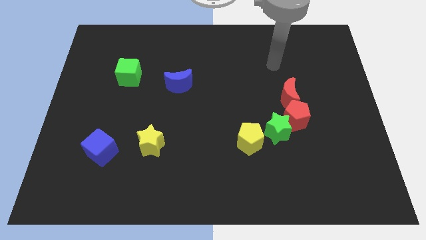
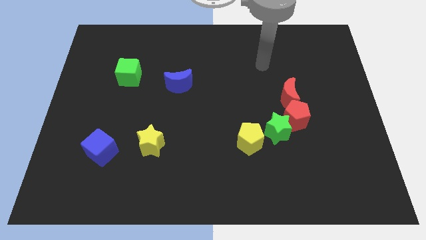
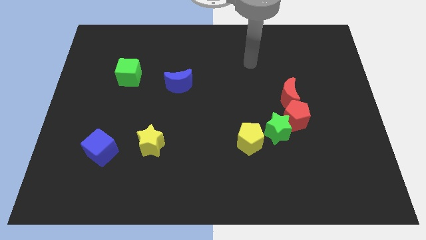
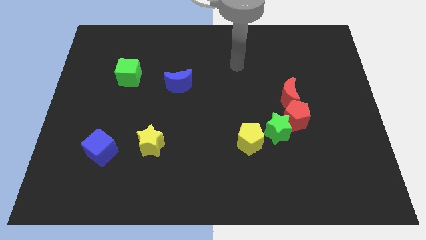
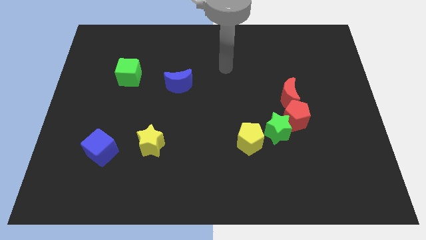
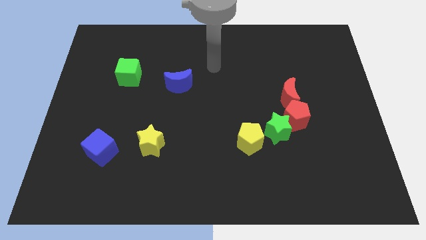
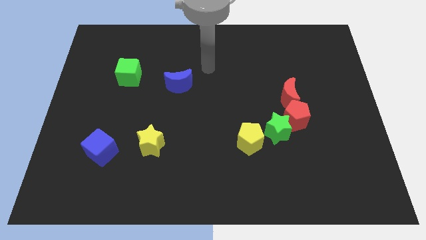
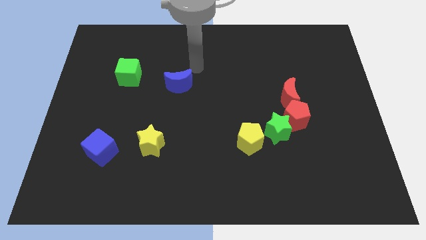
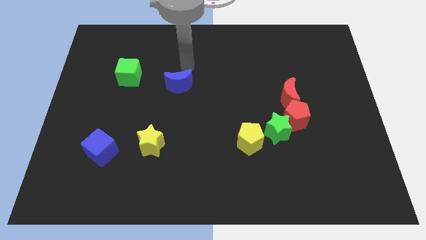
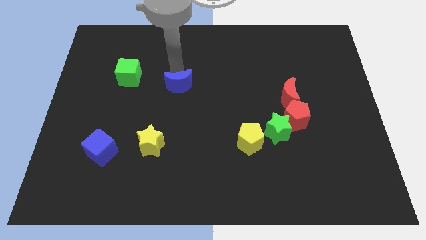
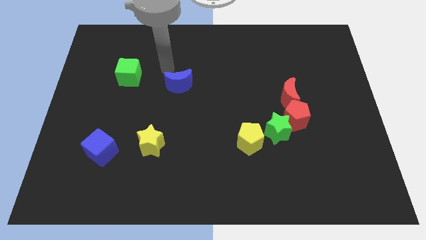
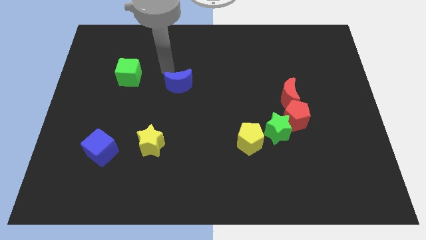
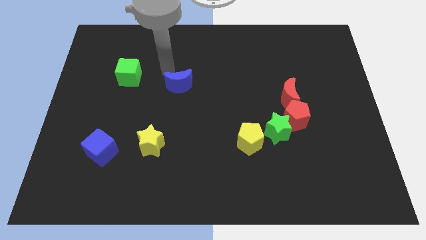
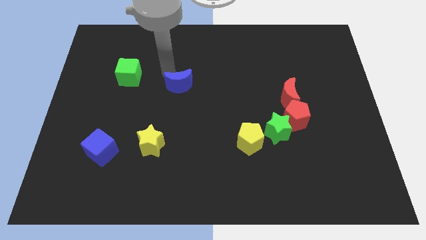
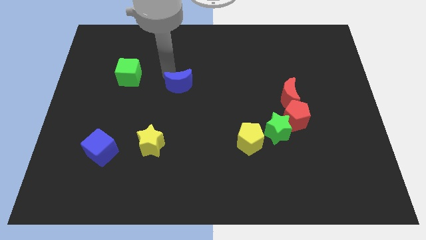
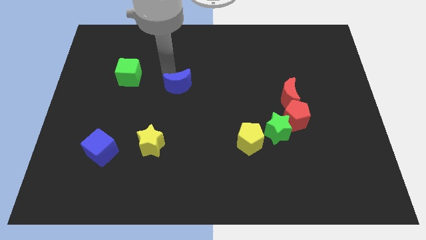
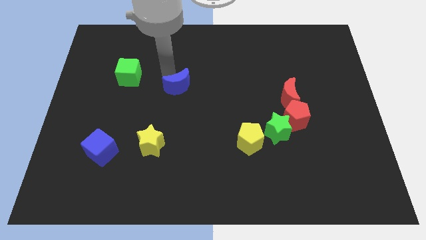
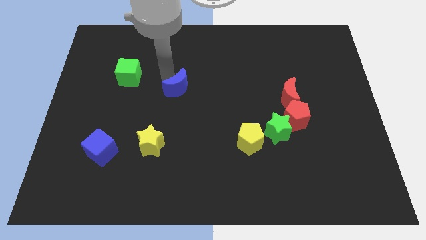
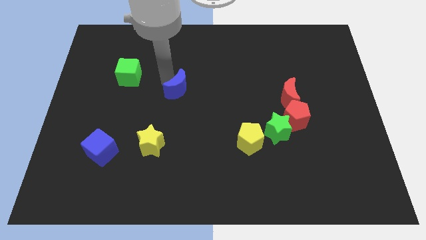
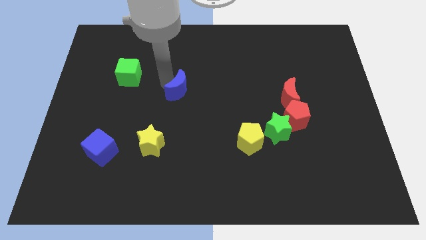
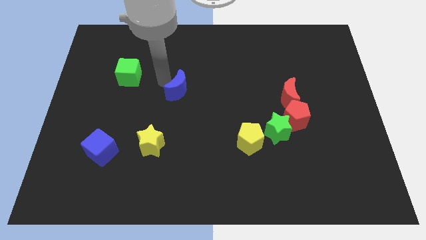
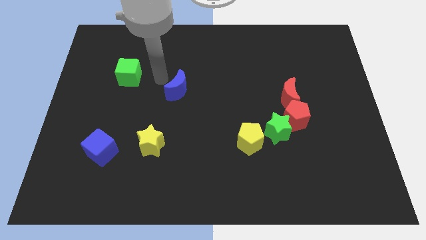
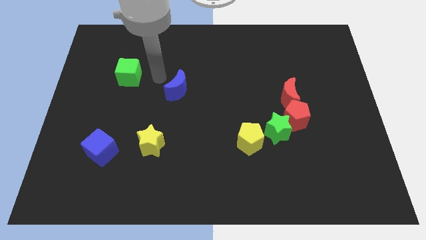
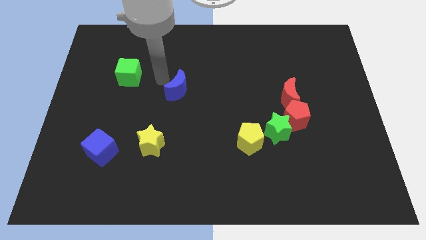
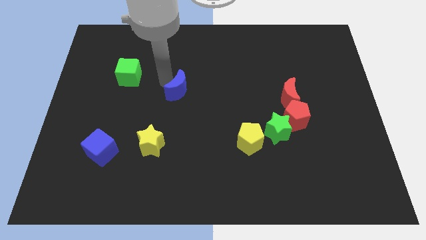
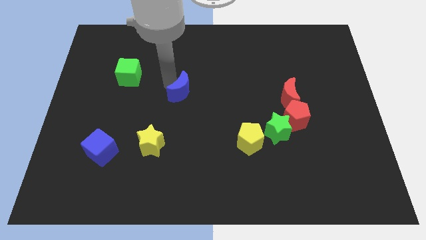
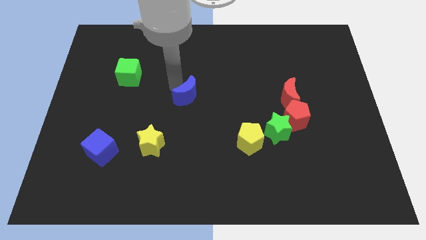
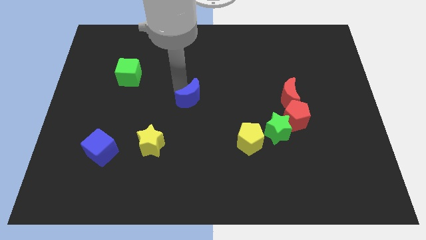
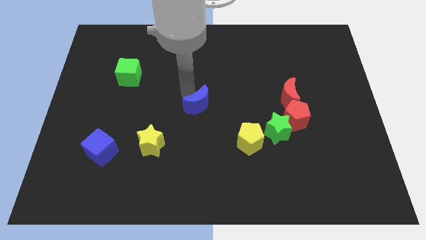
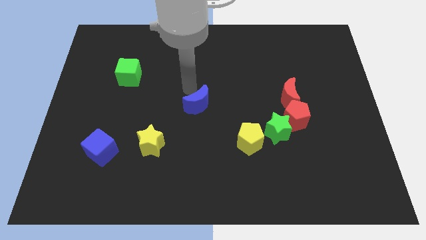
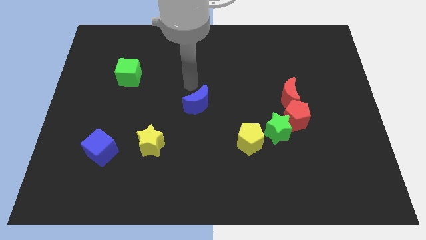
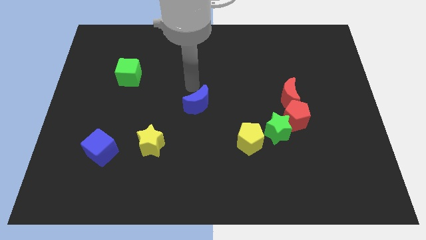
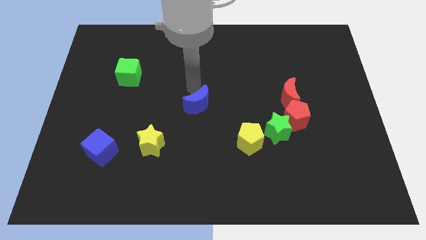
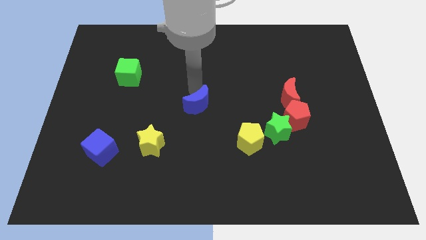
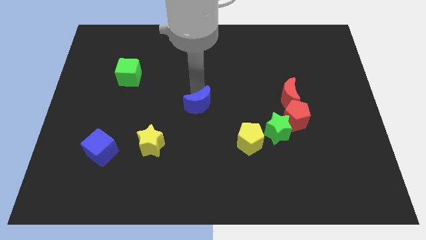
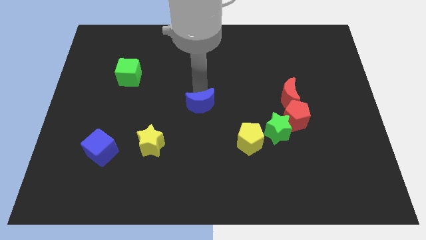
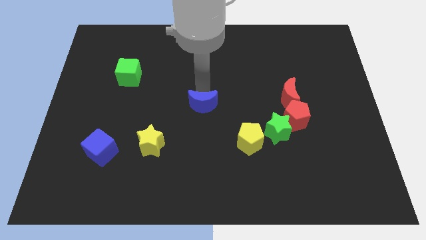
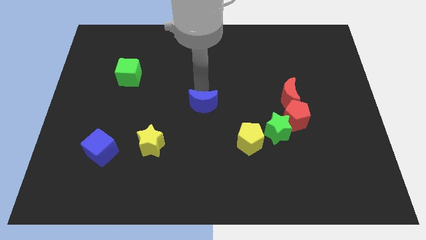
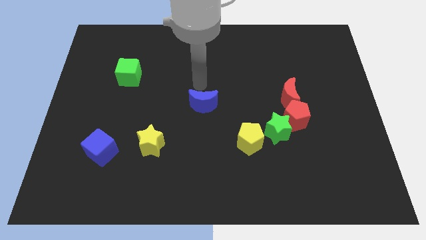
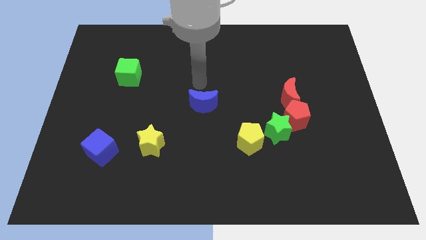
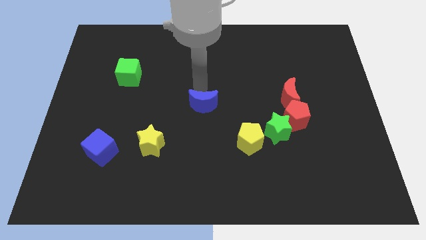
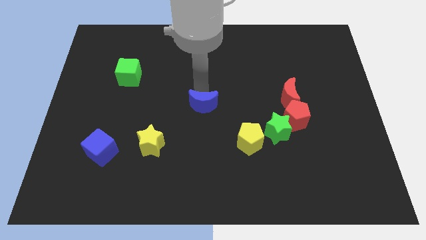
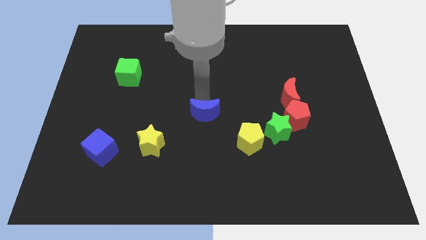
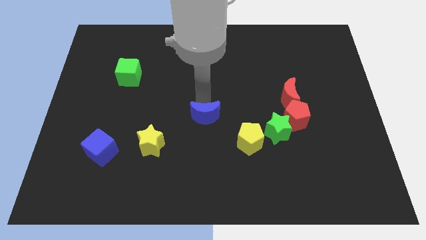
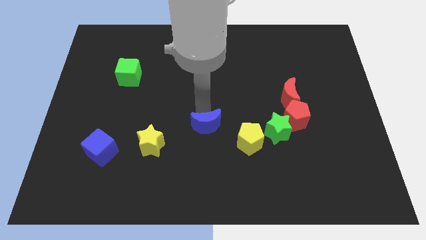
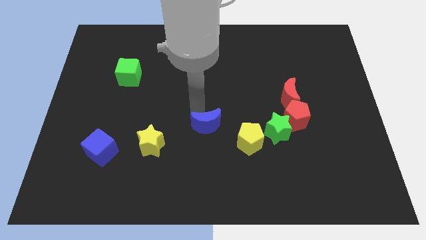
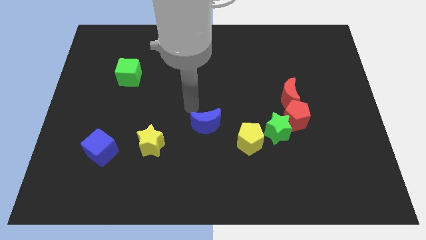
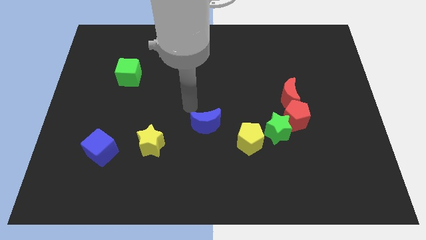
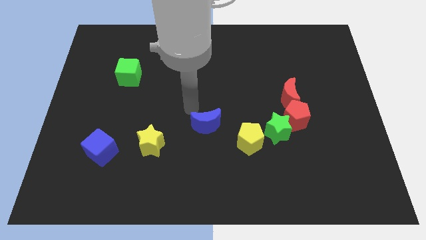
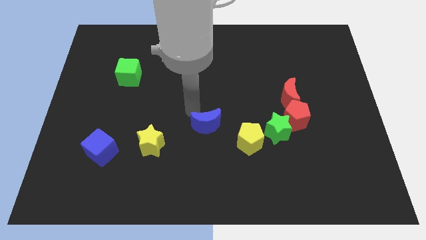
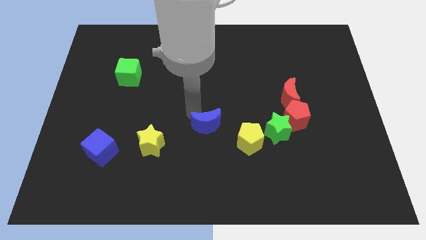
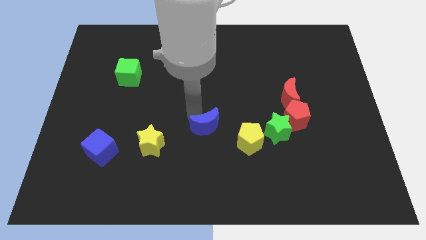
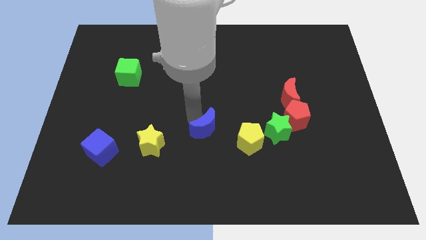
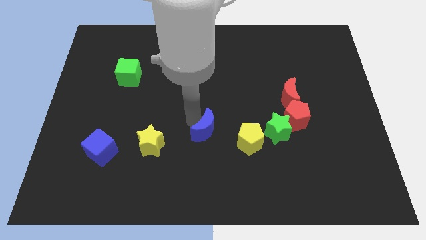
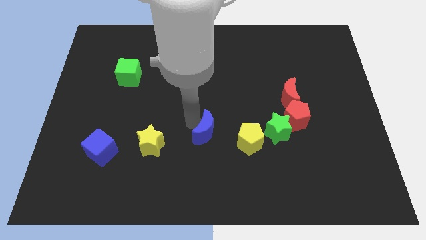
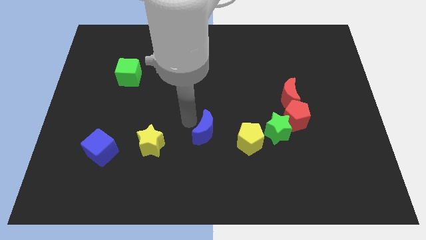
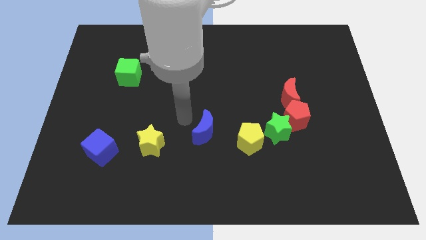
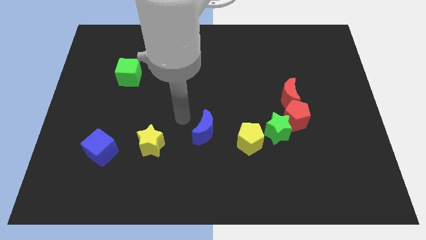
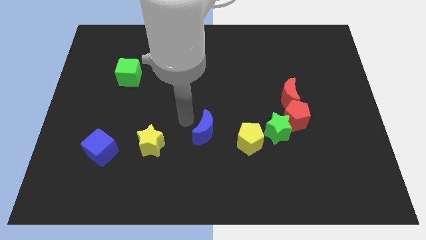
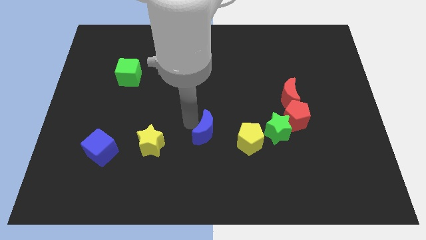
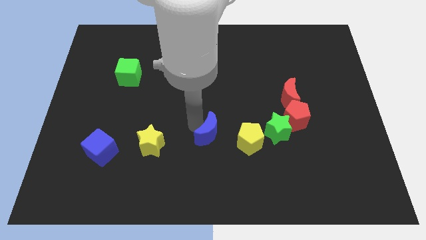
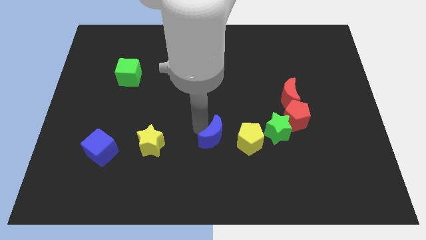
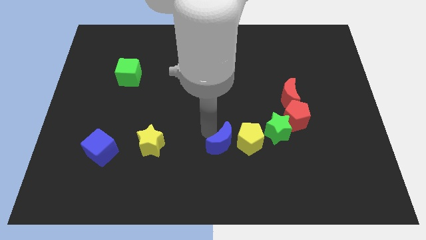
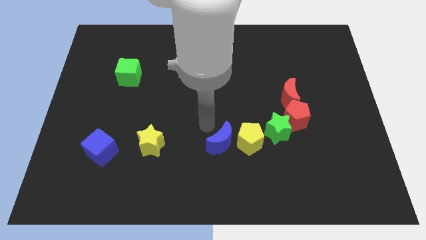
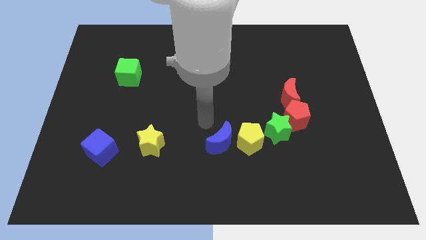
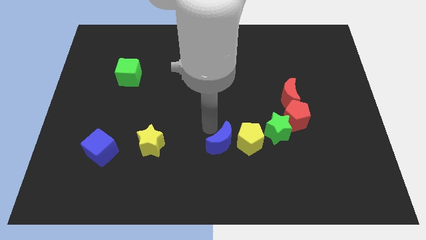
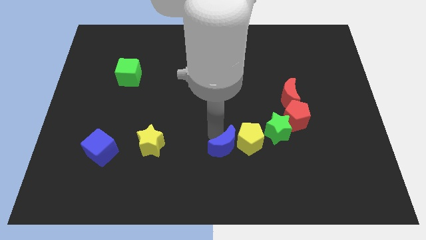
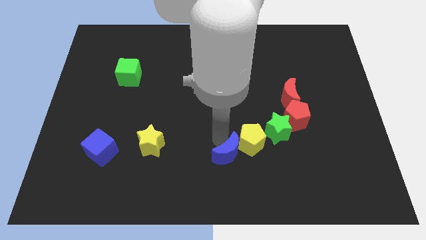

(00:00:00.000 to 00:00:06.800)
move the blue moon diagonally down and right

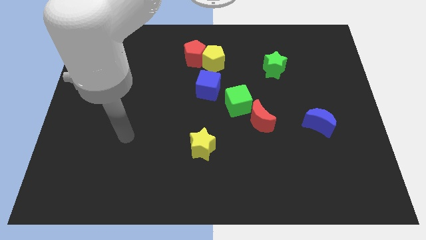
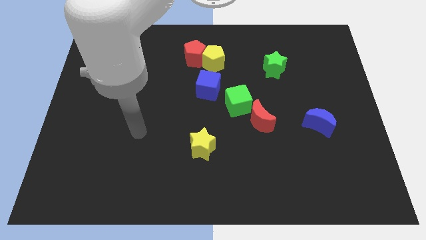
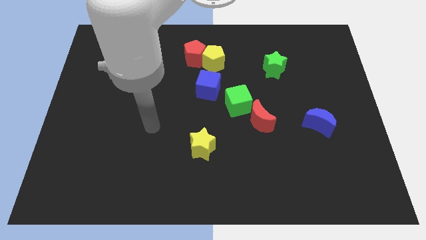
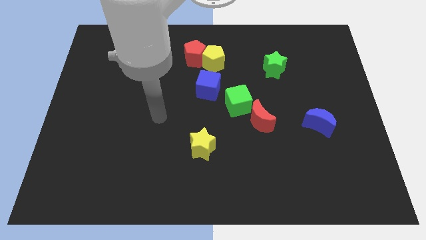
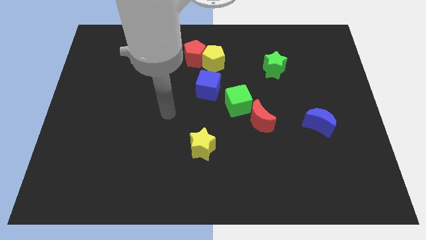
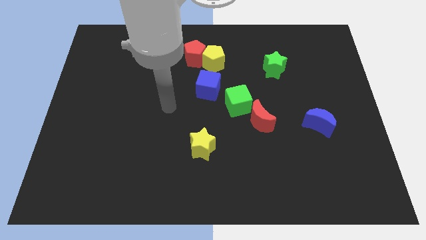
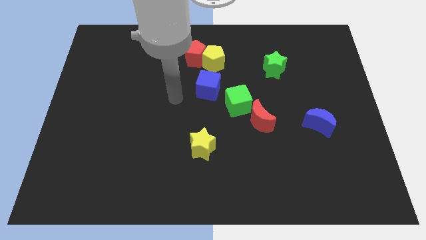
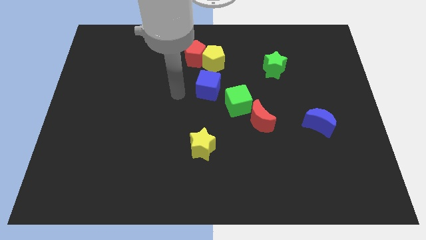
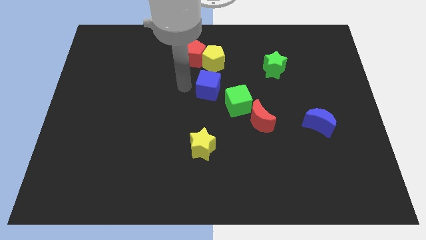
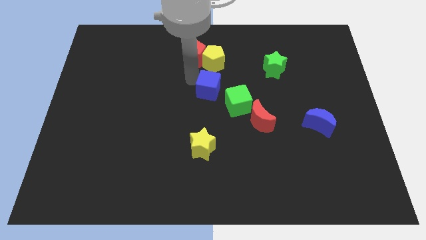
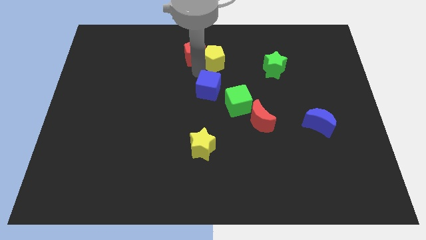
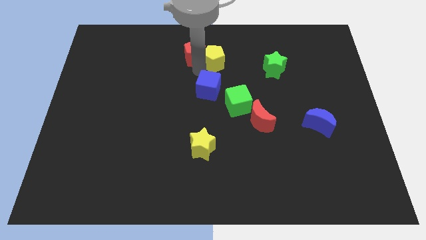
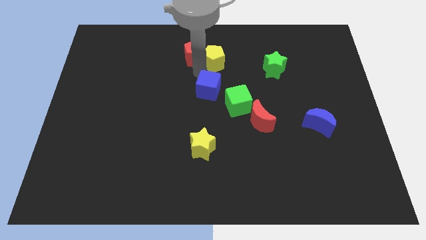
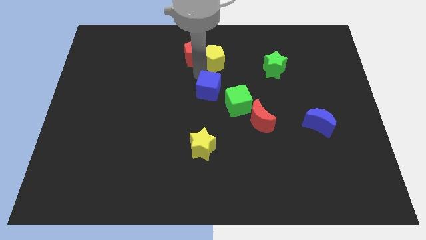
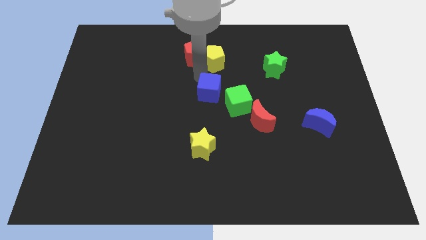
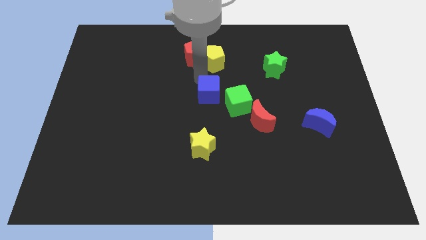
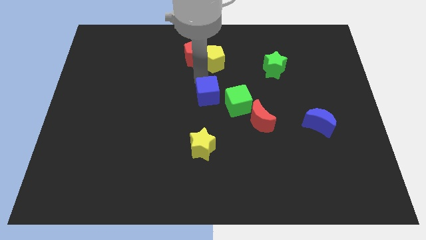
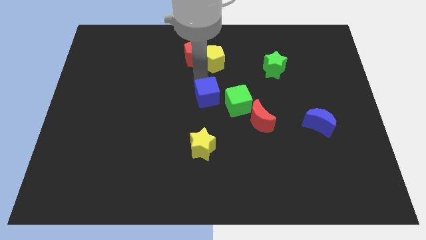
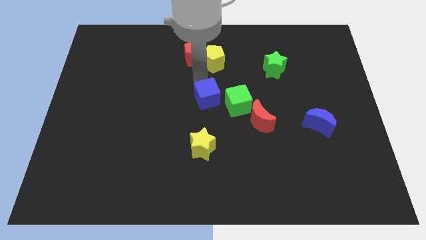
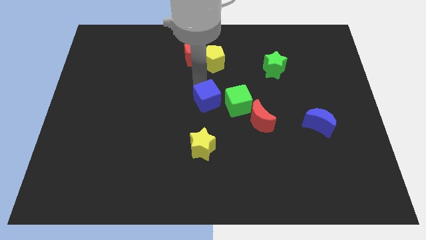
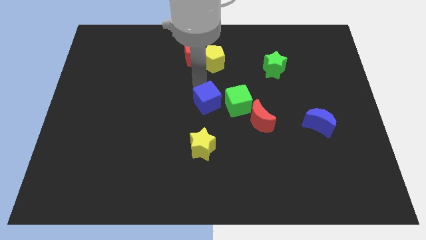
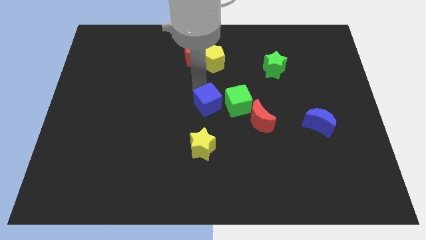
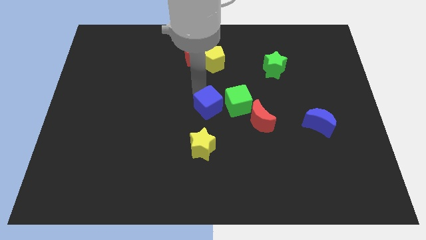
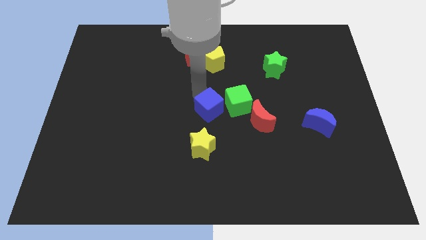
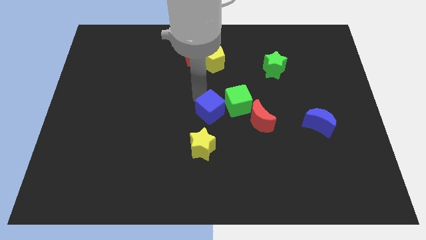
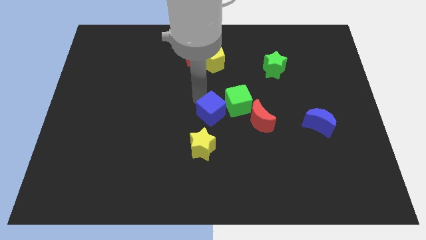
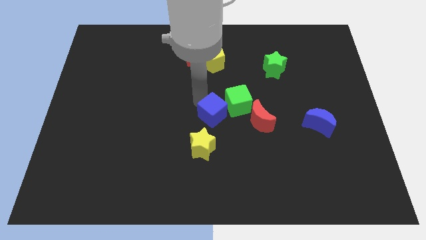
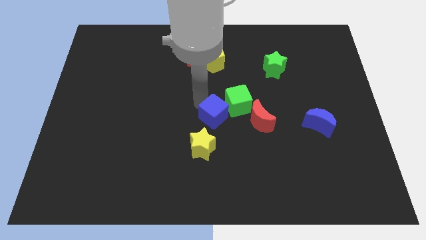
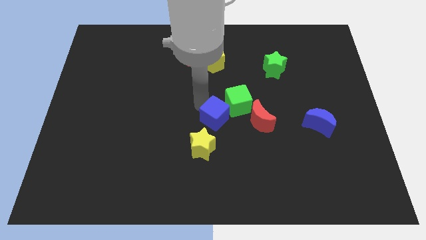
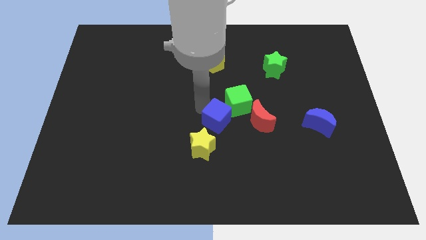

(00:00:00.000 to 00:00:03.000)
move the blue cube somewhat diagonally downwards and to the right
